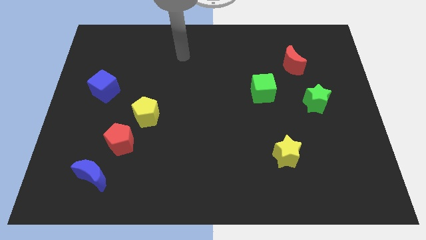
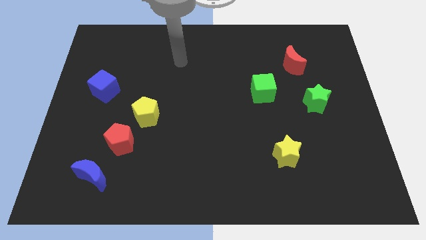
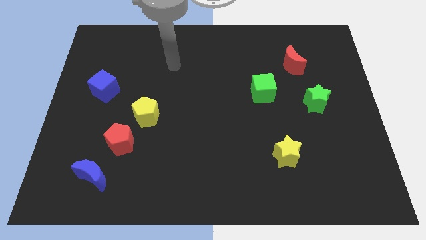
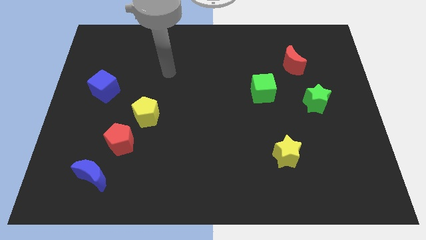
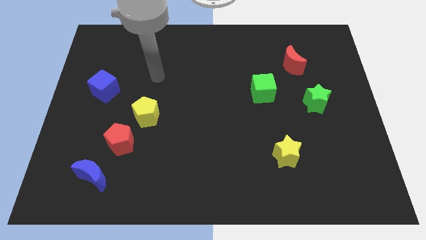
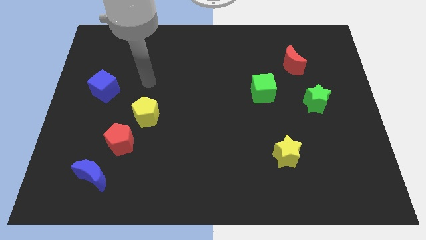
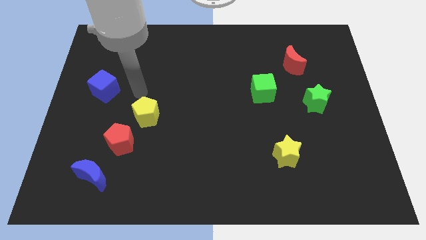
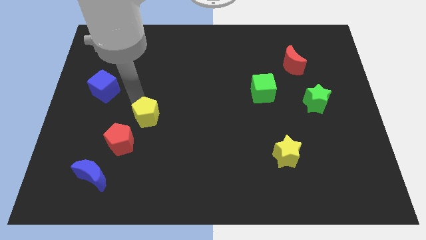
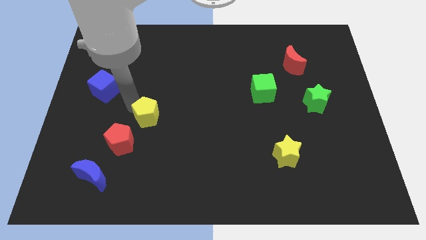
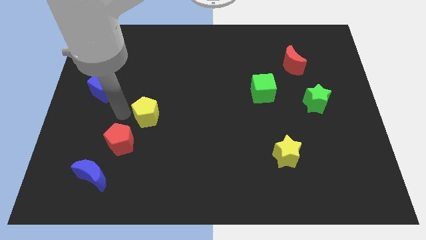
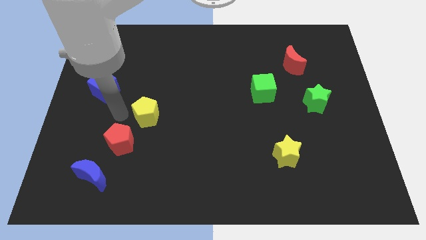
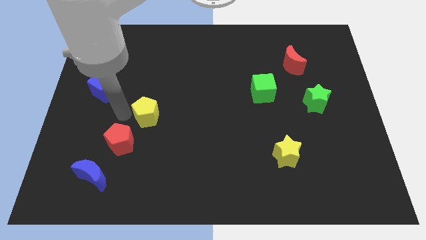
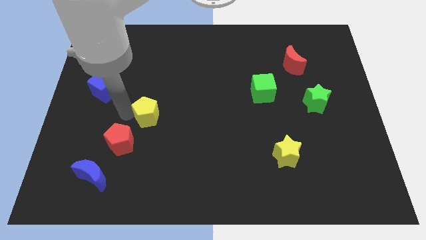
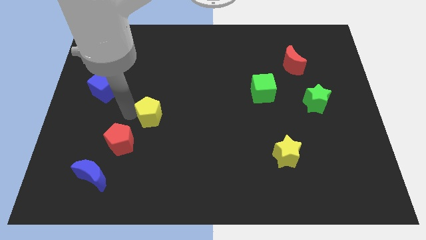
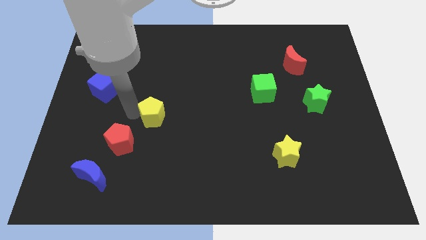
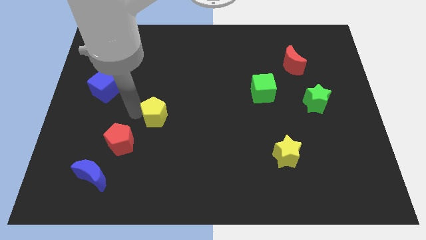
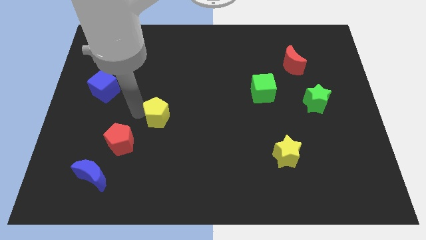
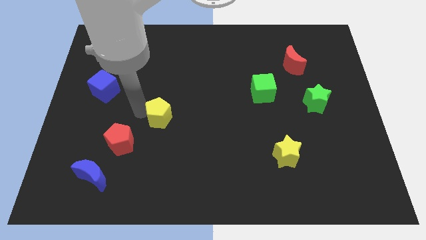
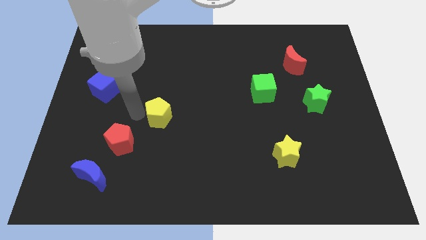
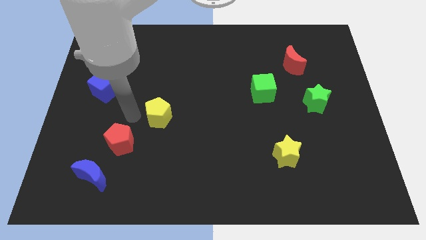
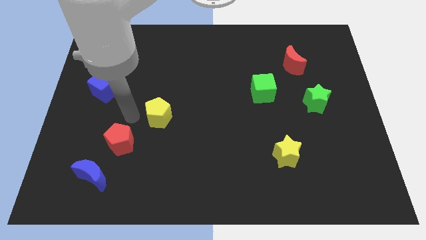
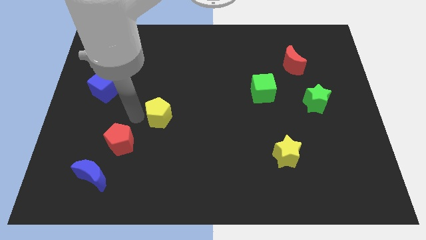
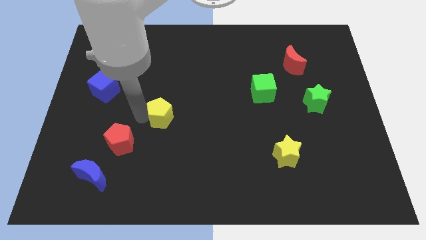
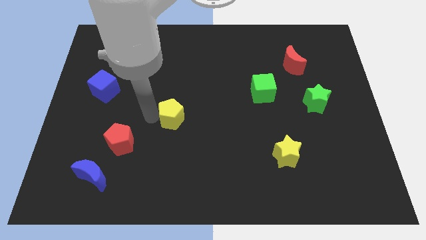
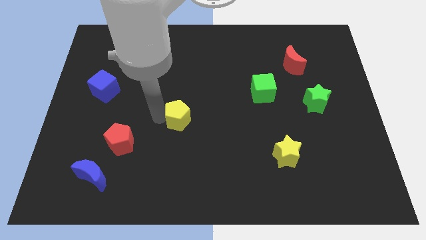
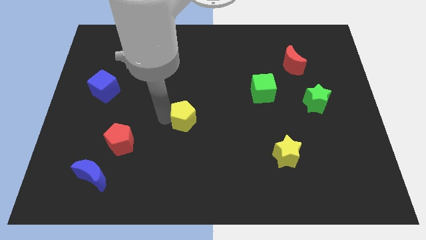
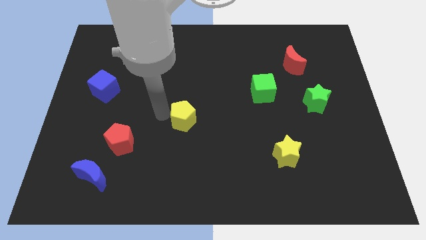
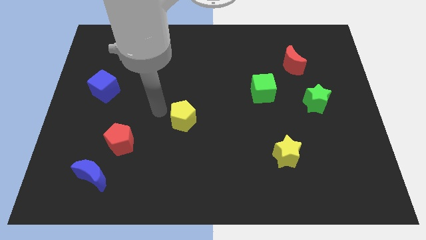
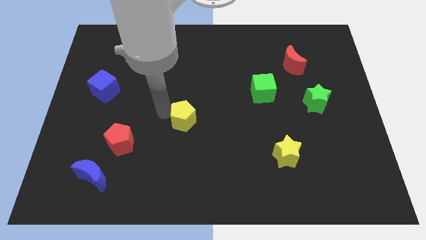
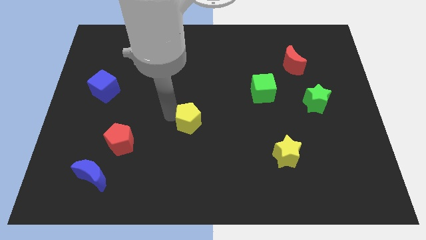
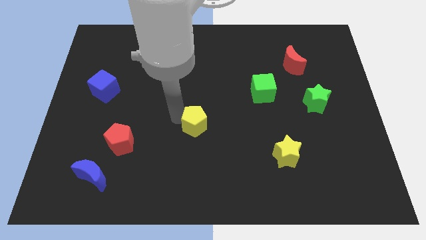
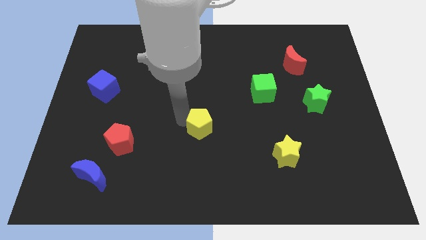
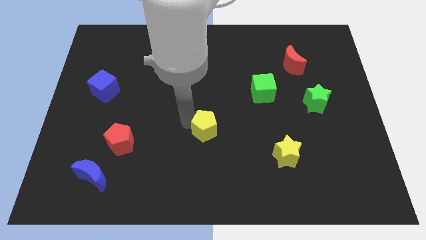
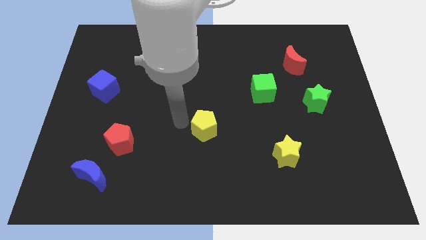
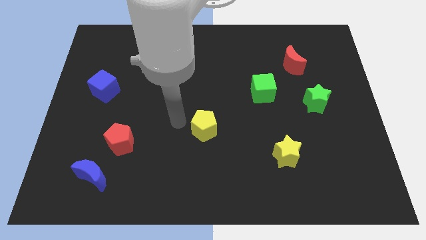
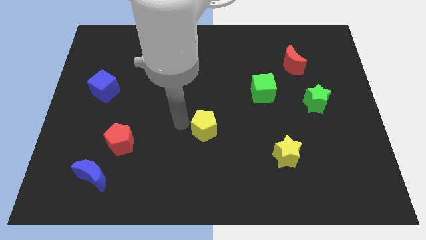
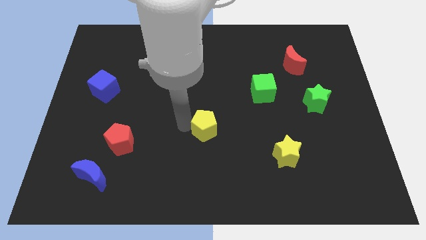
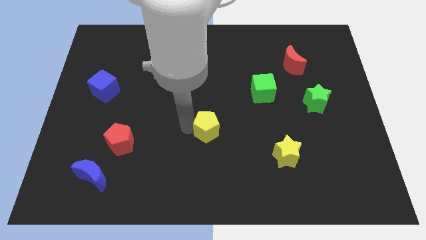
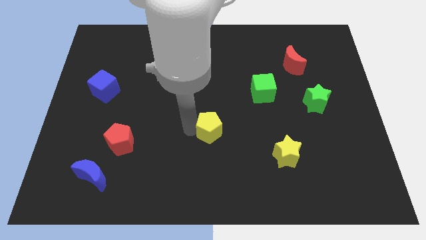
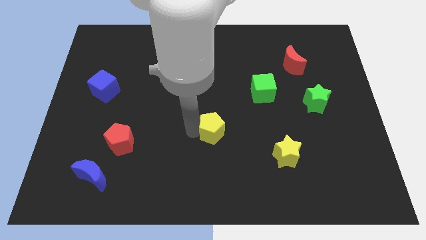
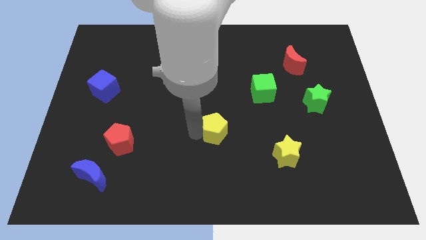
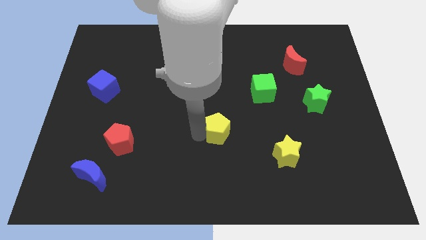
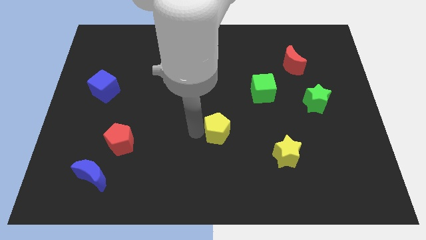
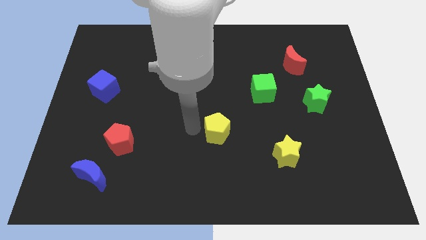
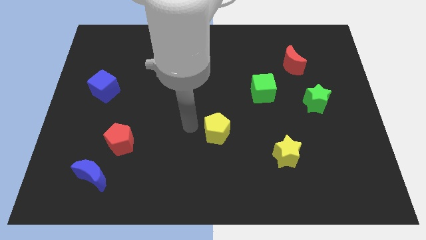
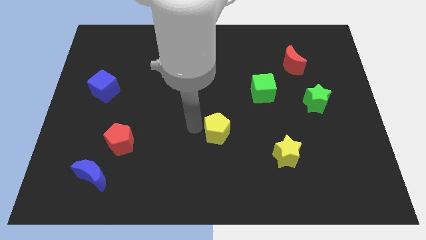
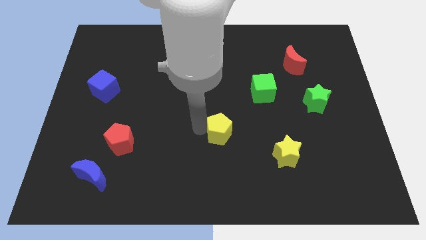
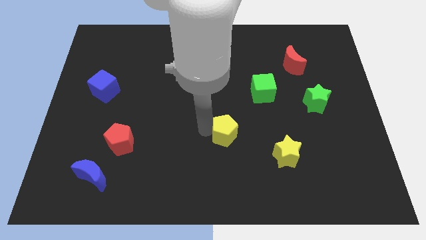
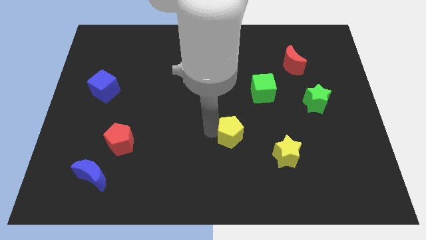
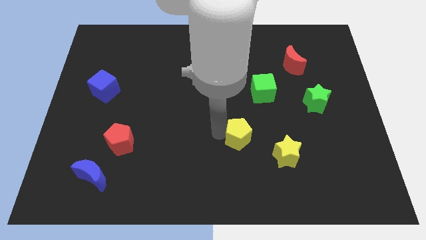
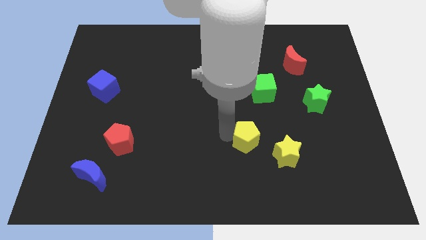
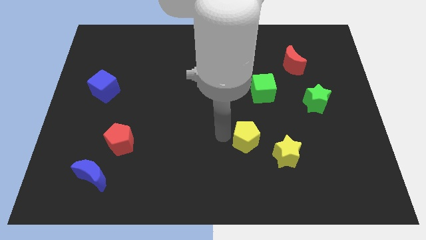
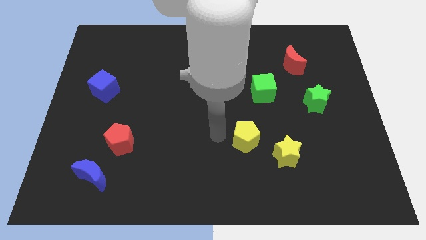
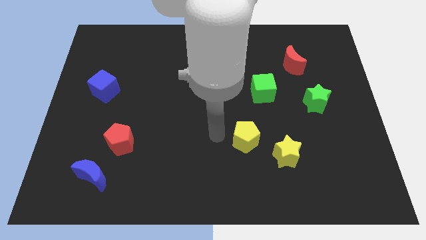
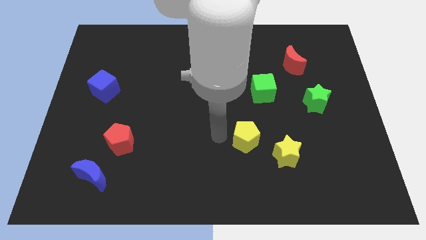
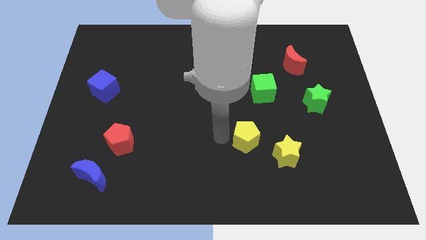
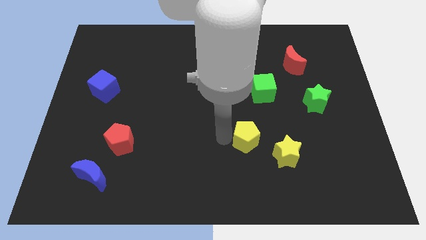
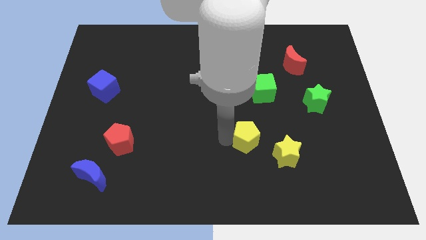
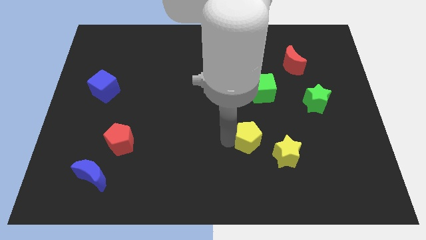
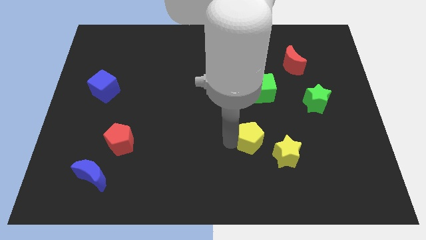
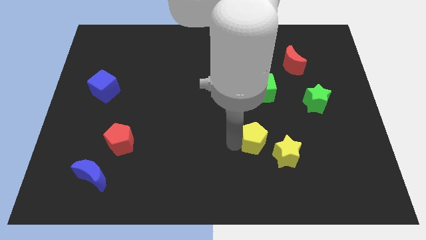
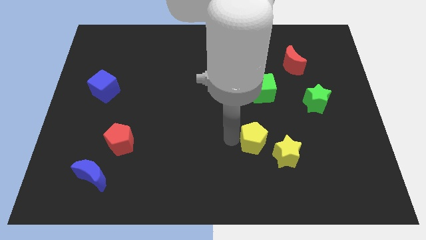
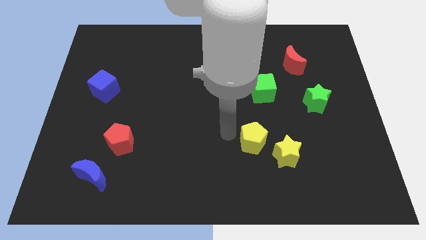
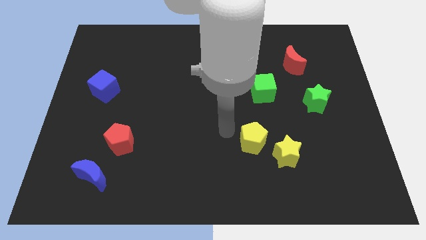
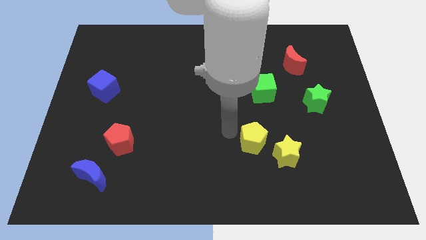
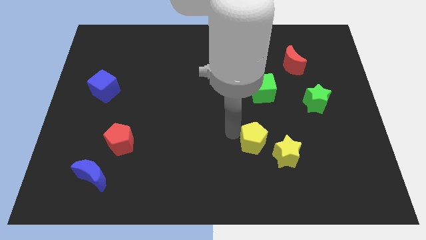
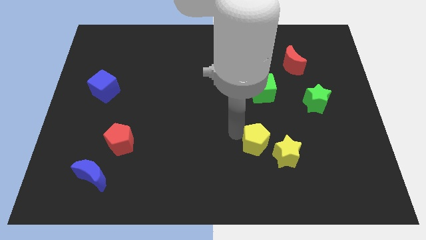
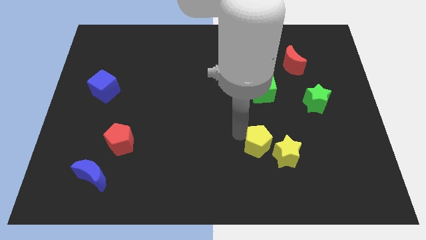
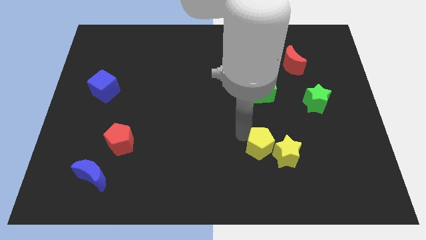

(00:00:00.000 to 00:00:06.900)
move the yellow pentagon next to the yellow star
